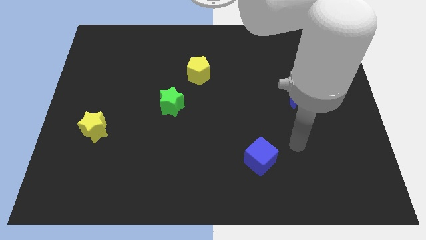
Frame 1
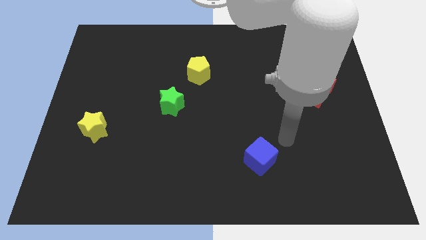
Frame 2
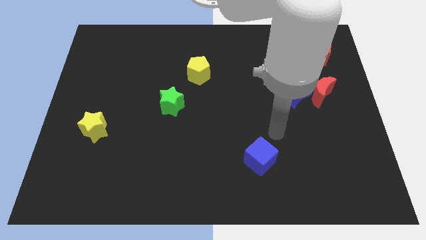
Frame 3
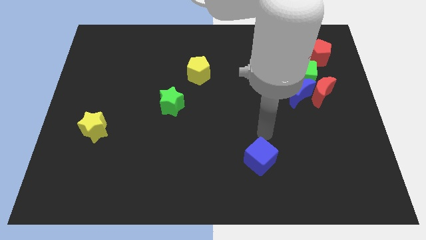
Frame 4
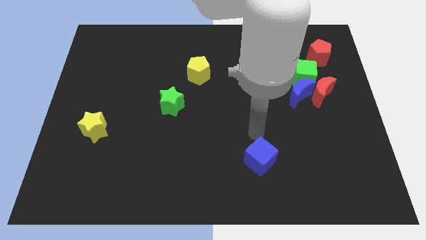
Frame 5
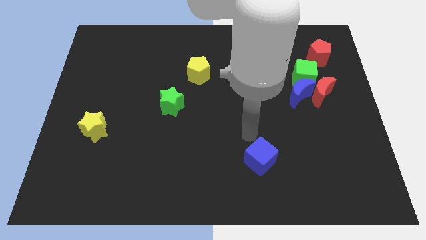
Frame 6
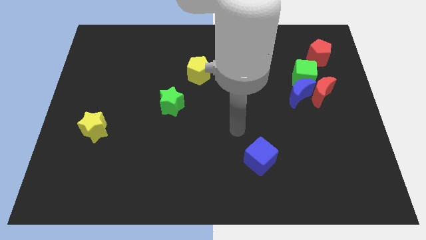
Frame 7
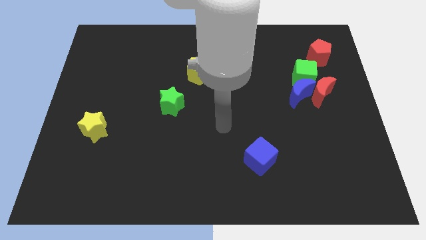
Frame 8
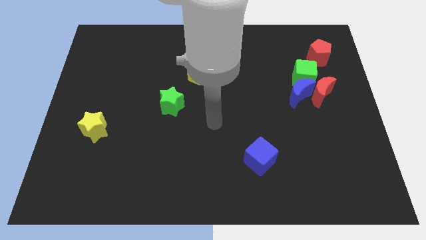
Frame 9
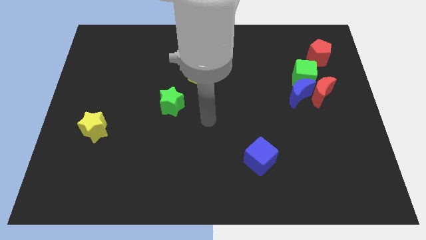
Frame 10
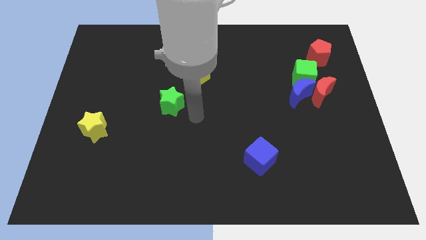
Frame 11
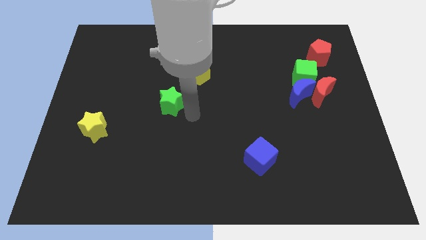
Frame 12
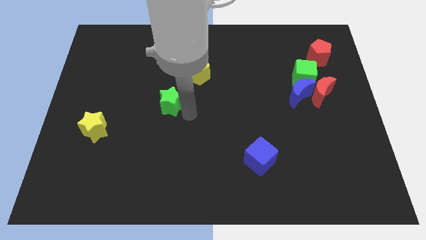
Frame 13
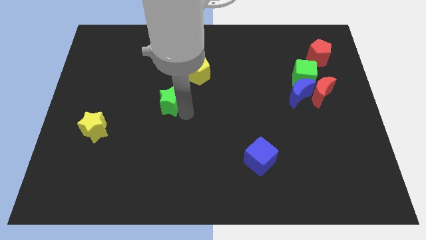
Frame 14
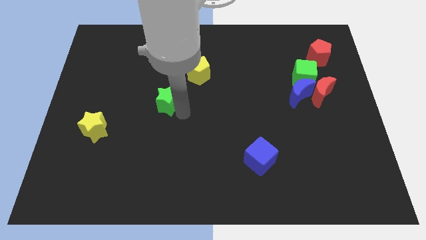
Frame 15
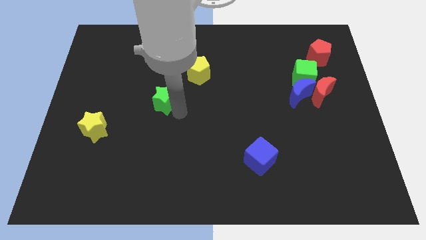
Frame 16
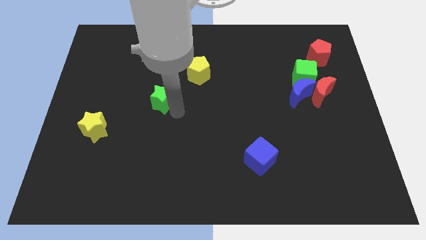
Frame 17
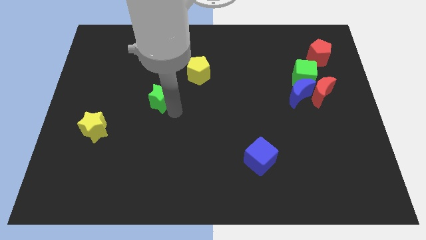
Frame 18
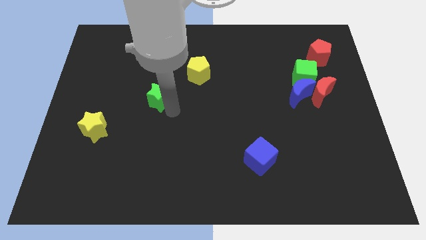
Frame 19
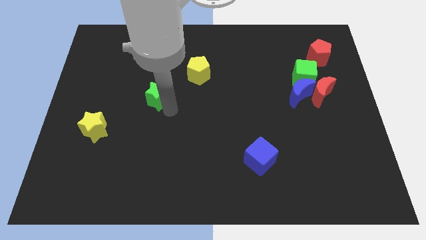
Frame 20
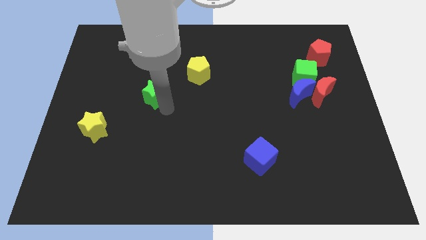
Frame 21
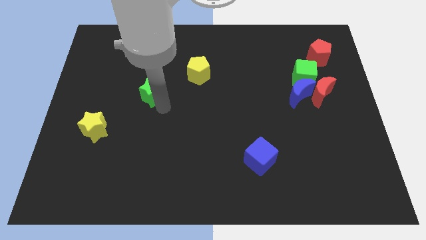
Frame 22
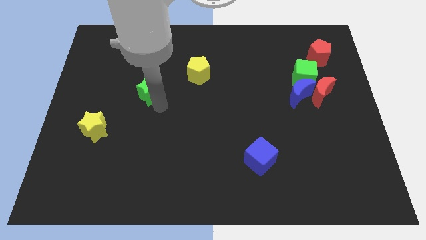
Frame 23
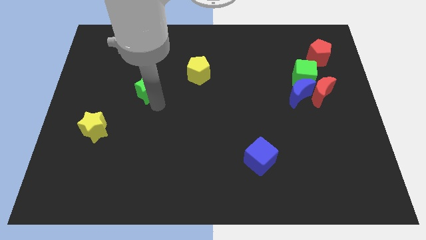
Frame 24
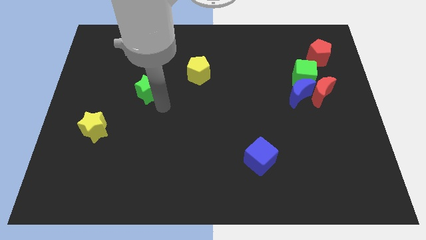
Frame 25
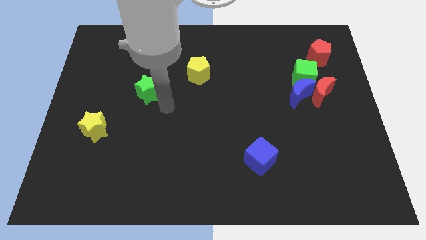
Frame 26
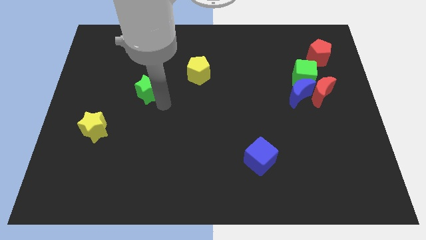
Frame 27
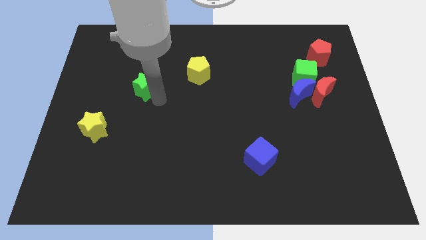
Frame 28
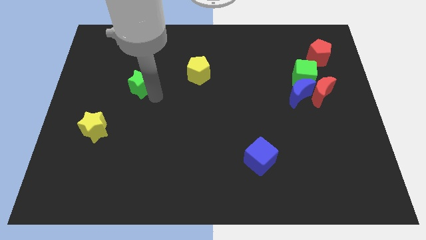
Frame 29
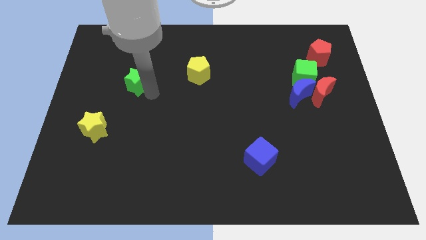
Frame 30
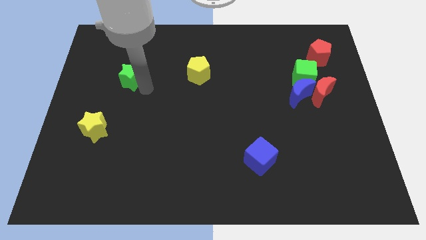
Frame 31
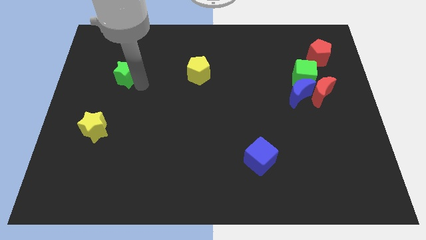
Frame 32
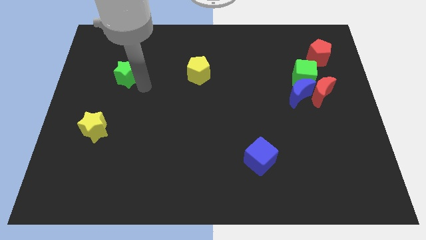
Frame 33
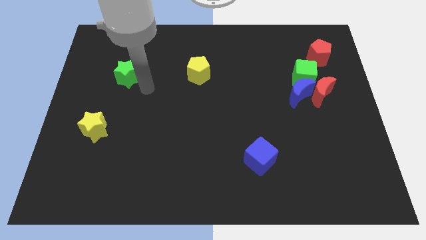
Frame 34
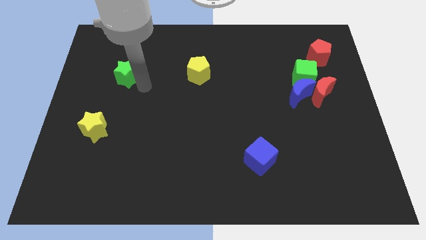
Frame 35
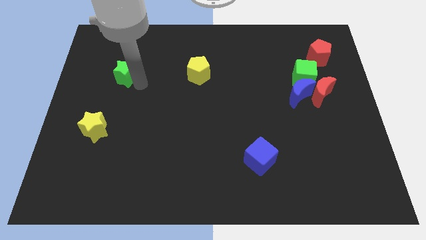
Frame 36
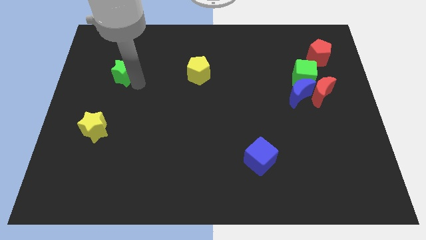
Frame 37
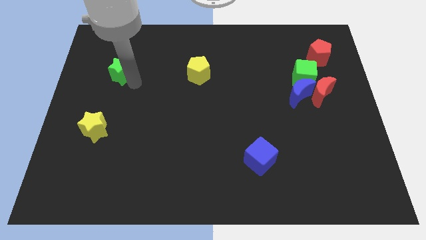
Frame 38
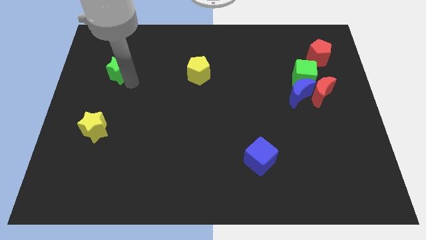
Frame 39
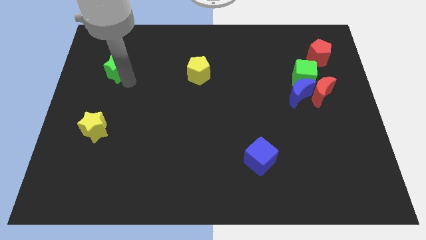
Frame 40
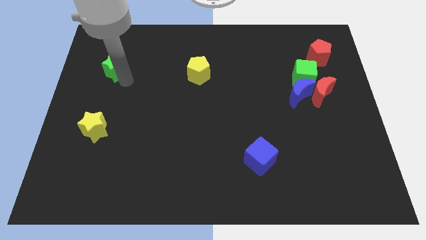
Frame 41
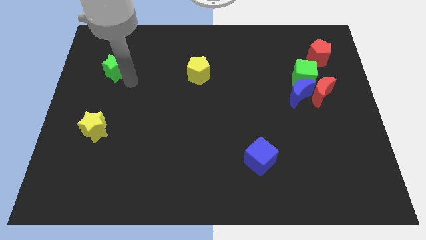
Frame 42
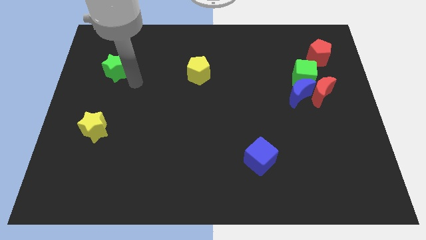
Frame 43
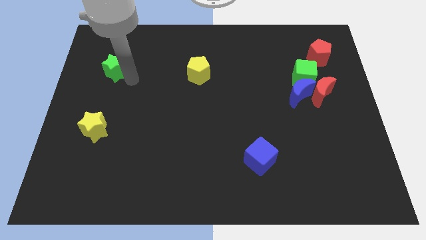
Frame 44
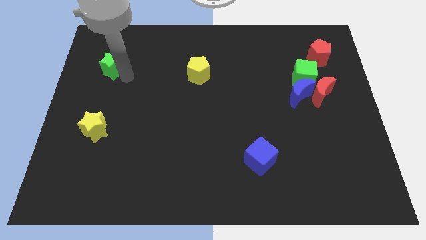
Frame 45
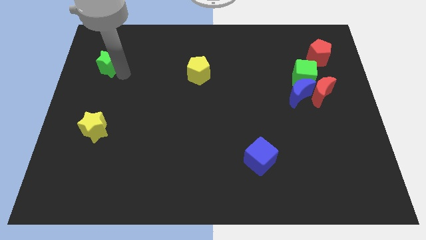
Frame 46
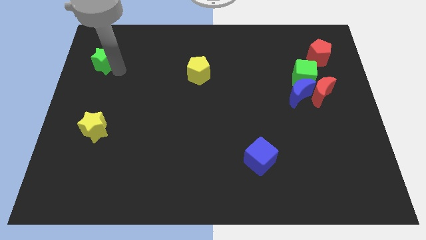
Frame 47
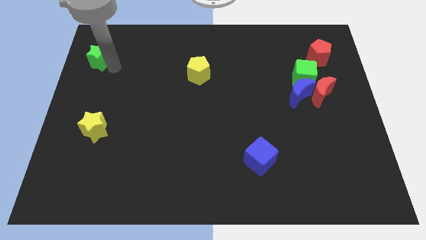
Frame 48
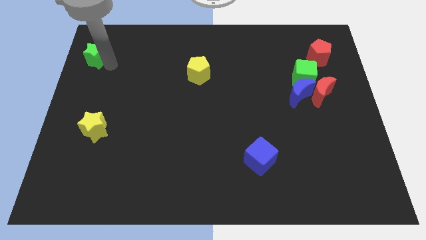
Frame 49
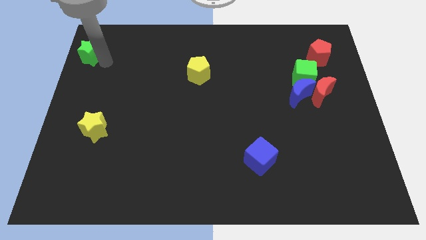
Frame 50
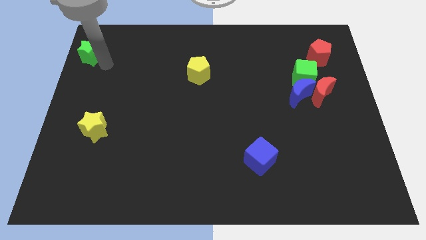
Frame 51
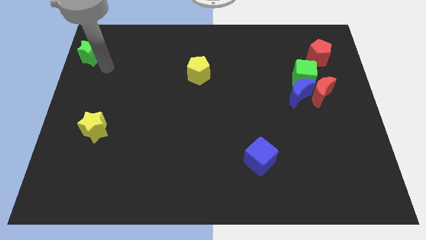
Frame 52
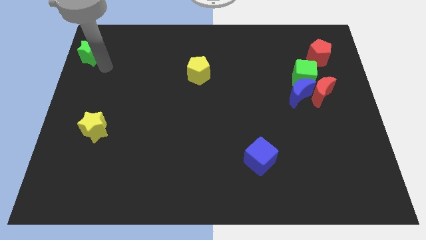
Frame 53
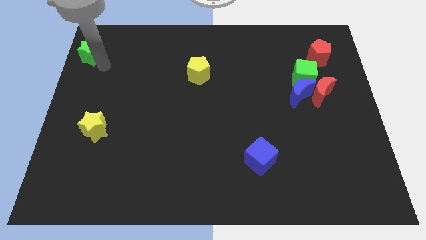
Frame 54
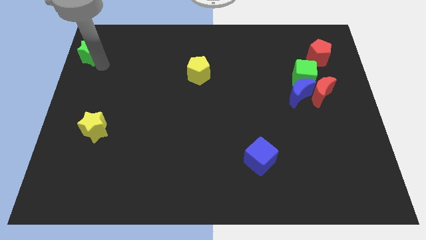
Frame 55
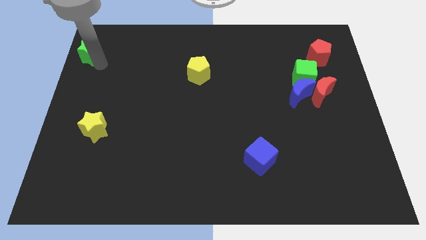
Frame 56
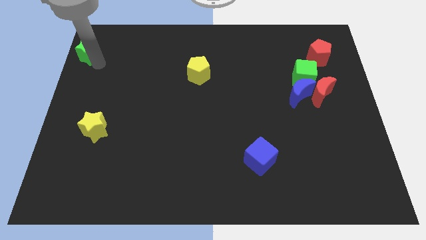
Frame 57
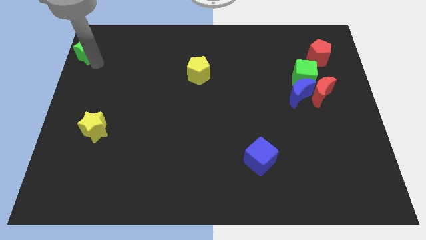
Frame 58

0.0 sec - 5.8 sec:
push the green star to the top left of the board
